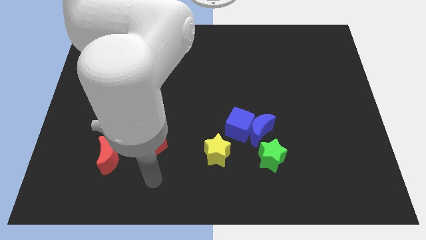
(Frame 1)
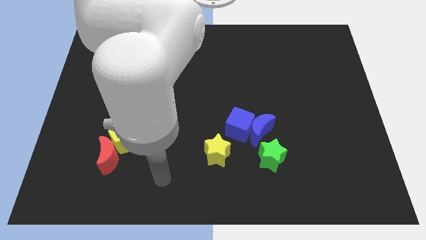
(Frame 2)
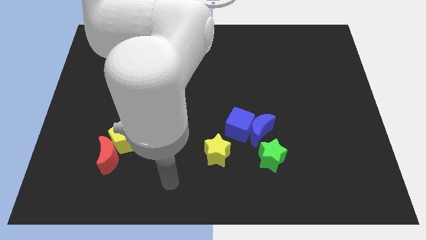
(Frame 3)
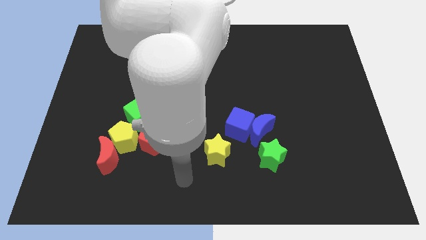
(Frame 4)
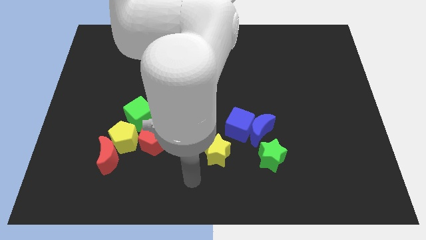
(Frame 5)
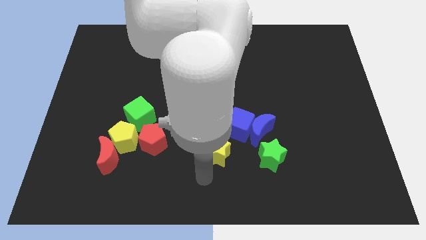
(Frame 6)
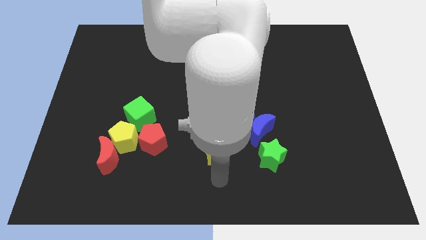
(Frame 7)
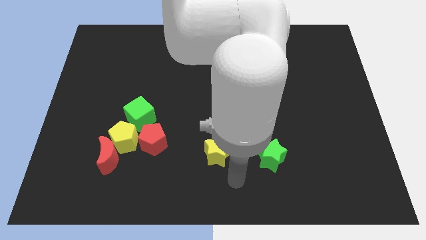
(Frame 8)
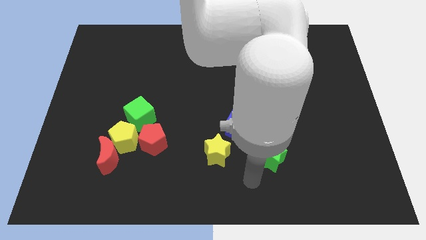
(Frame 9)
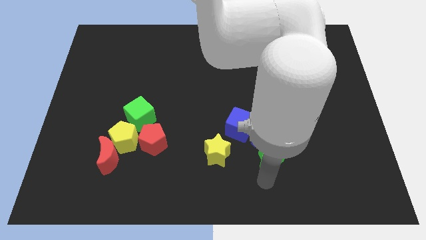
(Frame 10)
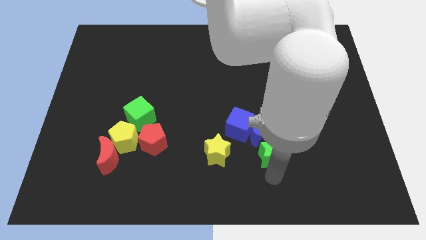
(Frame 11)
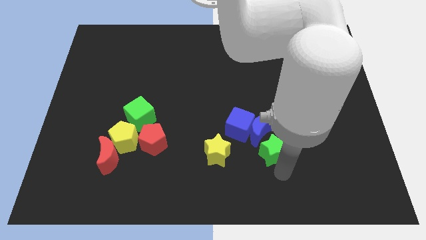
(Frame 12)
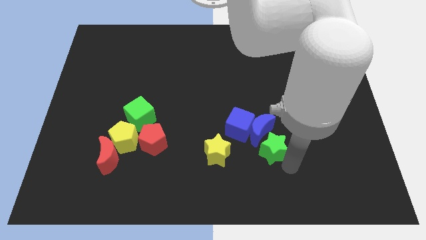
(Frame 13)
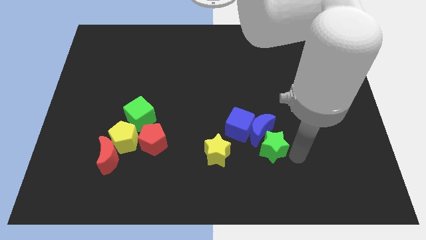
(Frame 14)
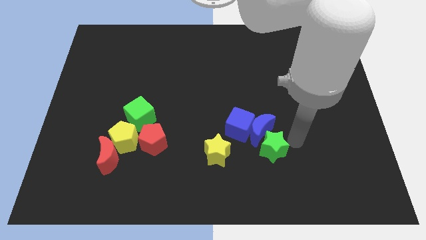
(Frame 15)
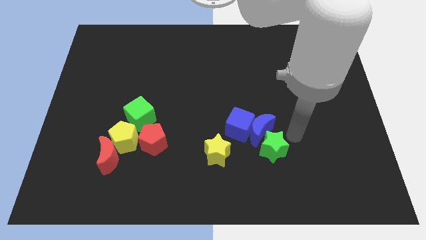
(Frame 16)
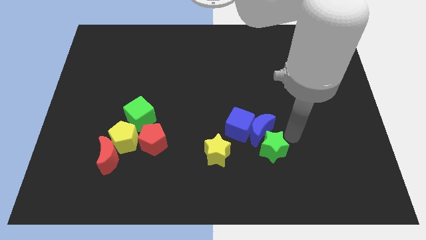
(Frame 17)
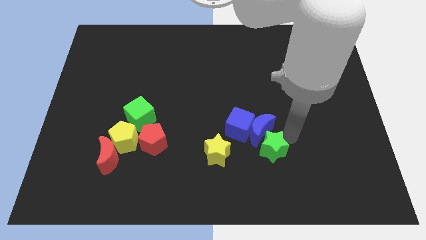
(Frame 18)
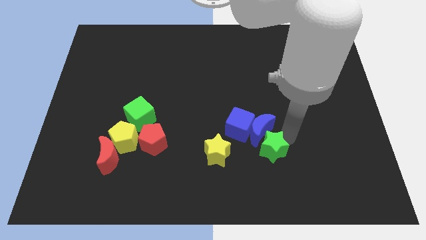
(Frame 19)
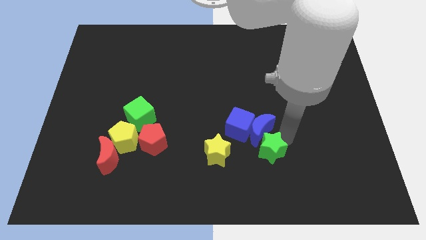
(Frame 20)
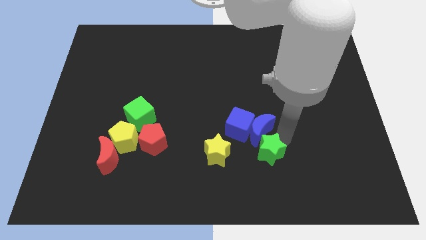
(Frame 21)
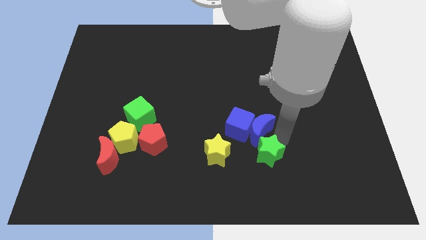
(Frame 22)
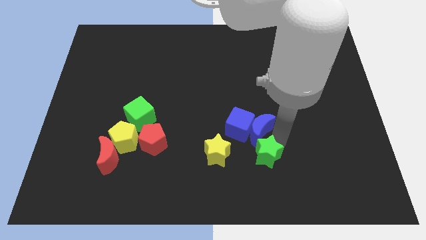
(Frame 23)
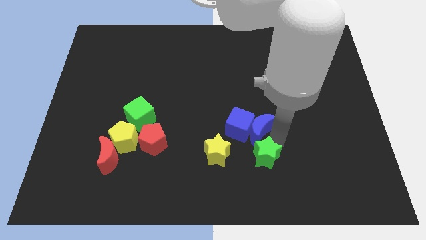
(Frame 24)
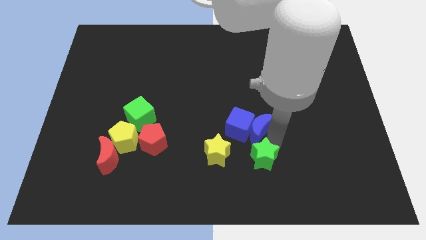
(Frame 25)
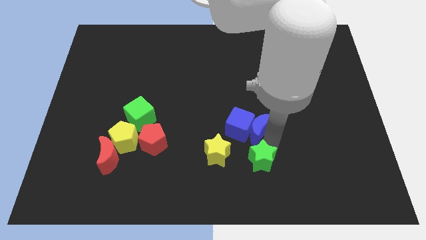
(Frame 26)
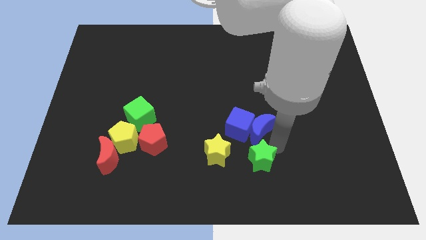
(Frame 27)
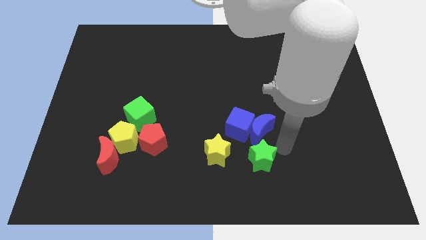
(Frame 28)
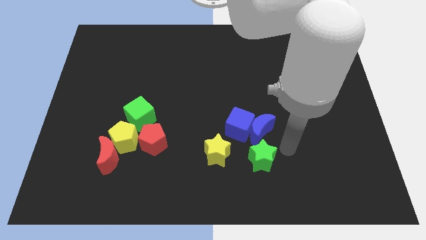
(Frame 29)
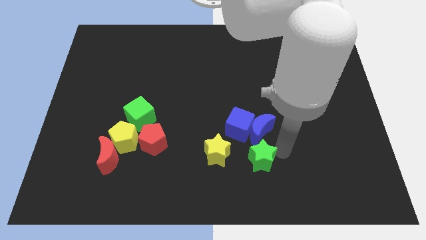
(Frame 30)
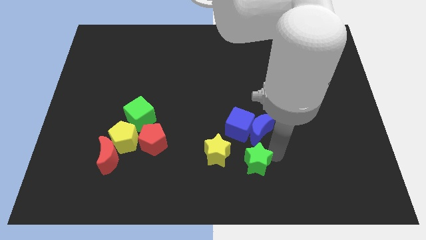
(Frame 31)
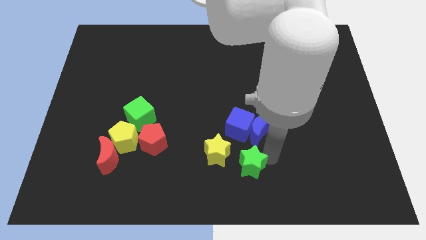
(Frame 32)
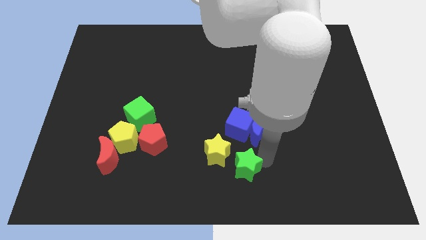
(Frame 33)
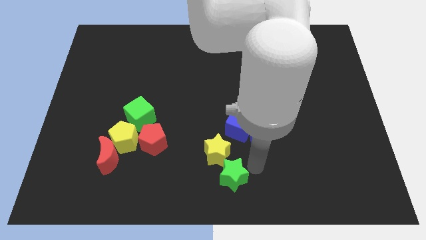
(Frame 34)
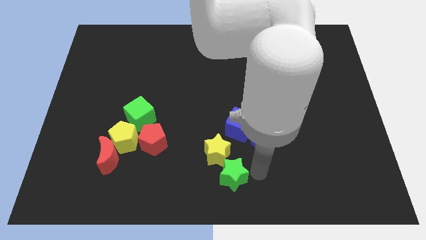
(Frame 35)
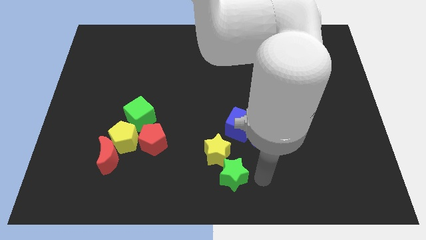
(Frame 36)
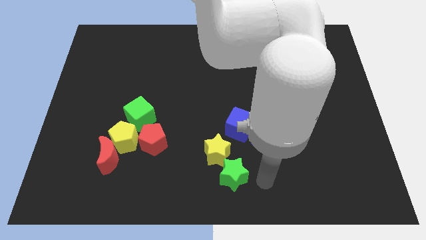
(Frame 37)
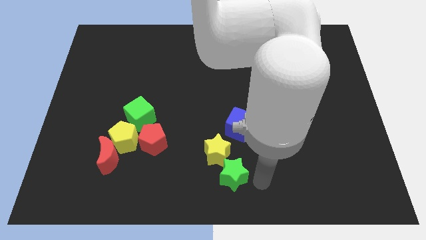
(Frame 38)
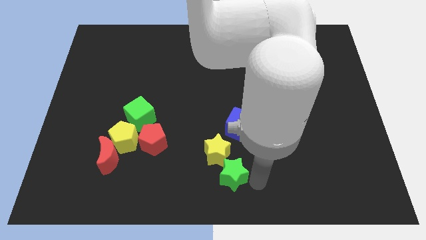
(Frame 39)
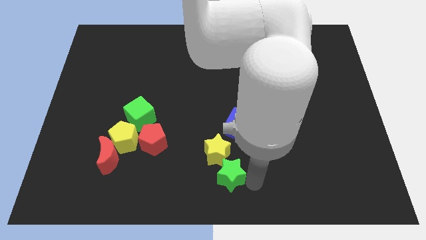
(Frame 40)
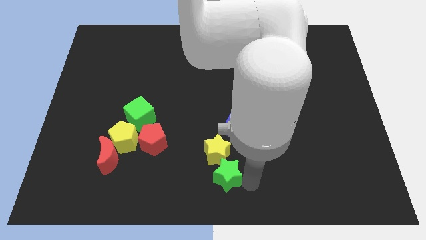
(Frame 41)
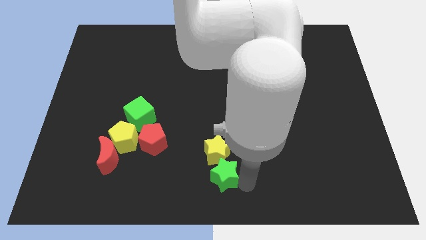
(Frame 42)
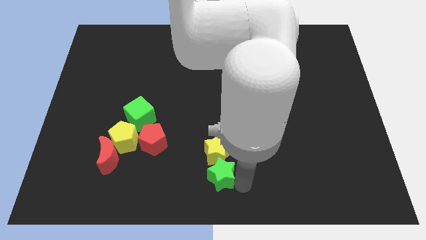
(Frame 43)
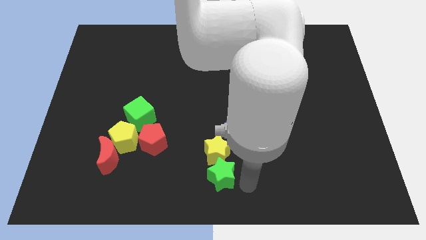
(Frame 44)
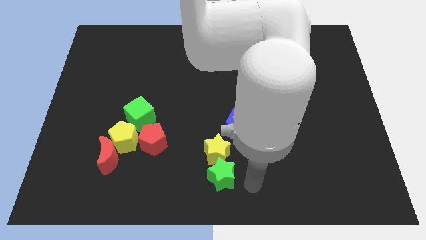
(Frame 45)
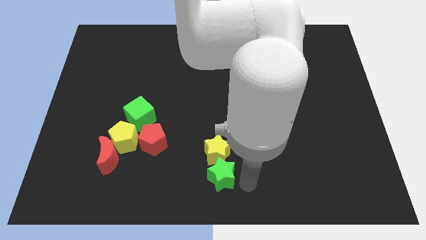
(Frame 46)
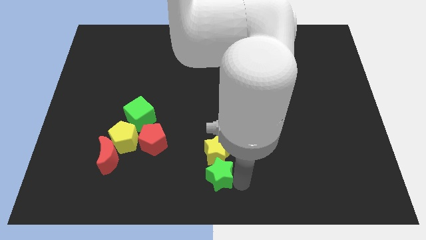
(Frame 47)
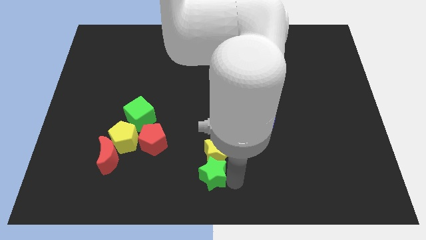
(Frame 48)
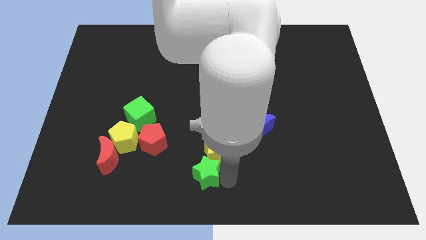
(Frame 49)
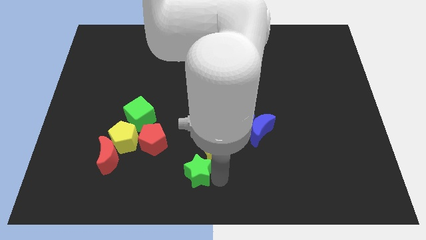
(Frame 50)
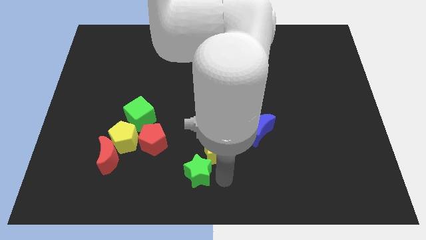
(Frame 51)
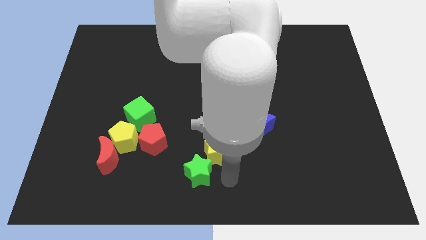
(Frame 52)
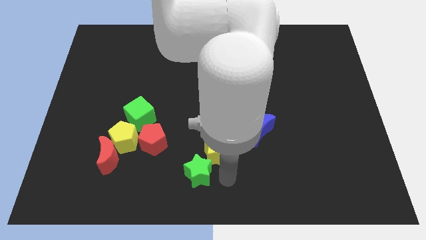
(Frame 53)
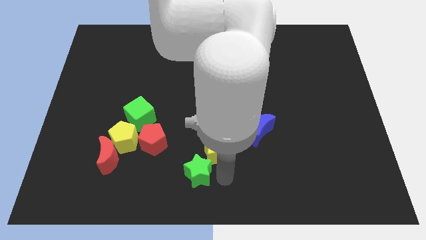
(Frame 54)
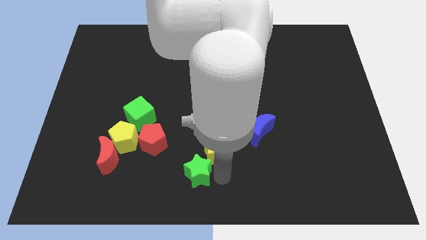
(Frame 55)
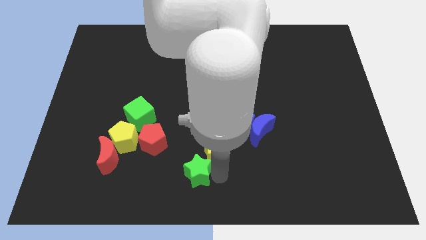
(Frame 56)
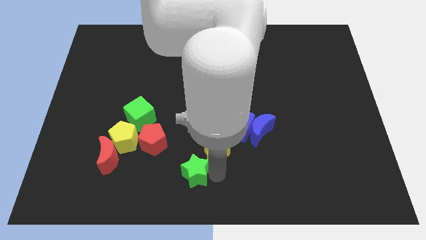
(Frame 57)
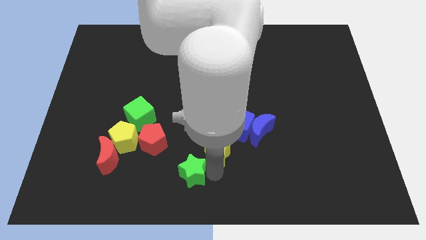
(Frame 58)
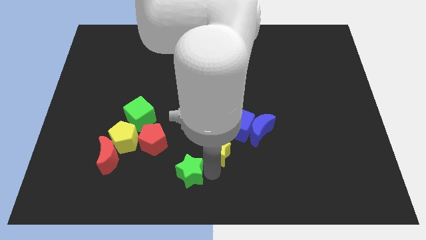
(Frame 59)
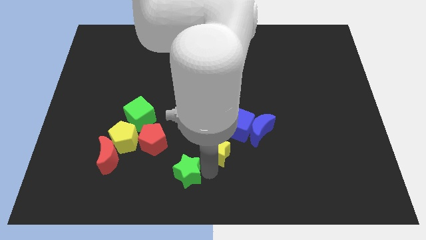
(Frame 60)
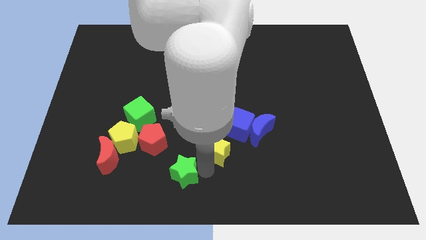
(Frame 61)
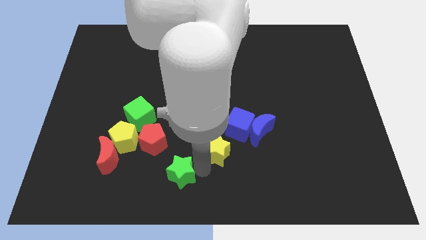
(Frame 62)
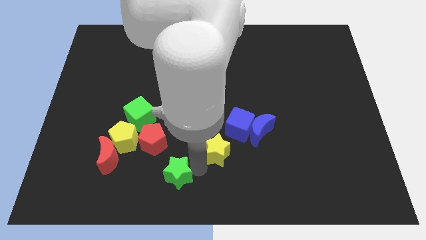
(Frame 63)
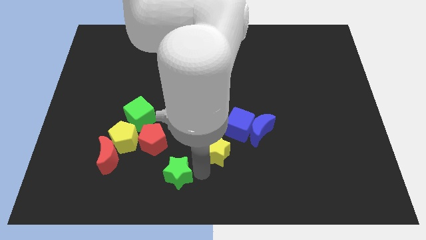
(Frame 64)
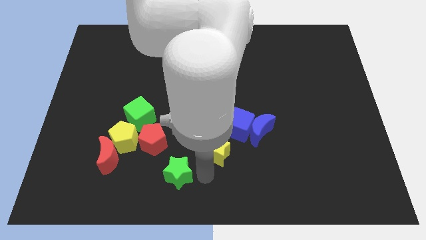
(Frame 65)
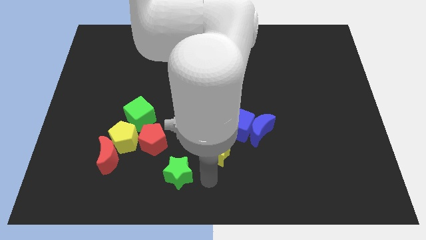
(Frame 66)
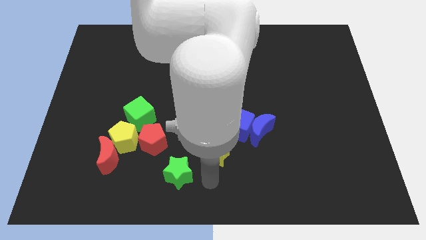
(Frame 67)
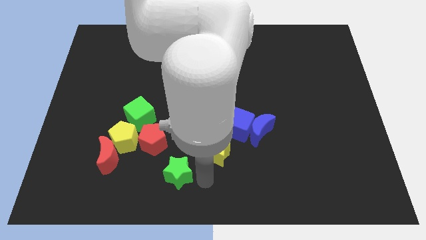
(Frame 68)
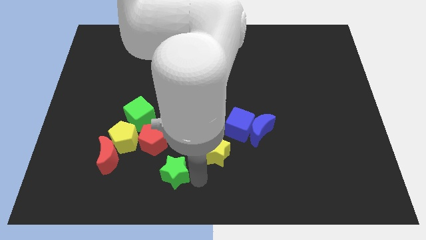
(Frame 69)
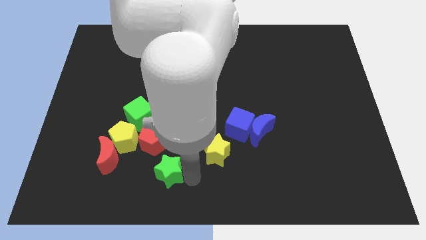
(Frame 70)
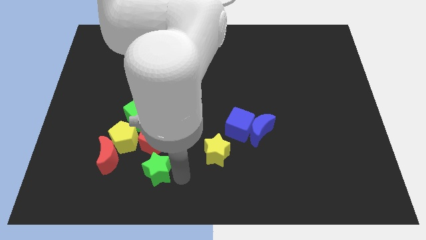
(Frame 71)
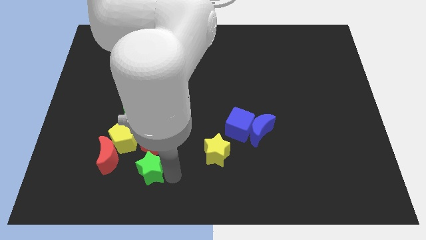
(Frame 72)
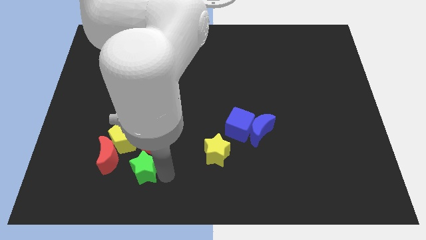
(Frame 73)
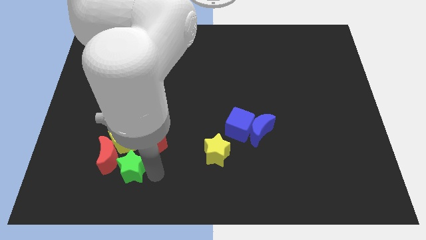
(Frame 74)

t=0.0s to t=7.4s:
slide the green star next to the red moon
